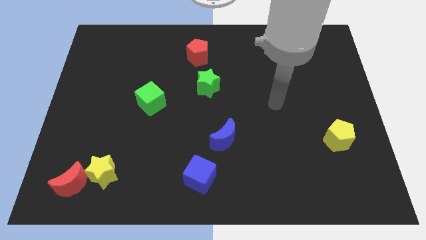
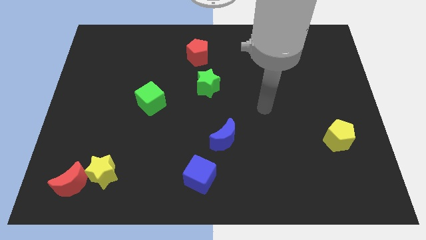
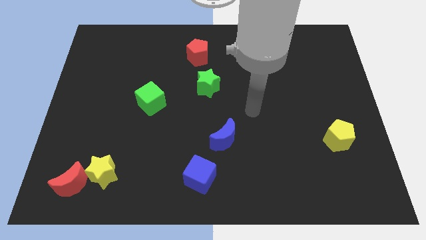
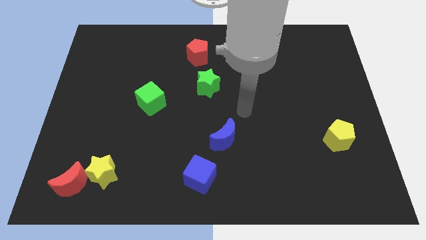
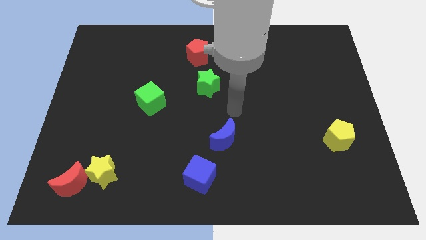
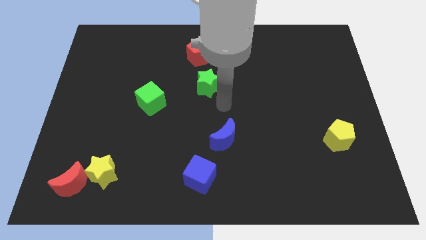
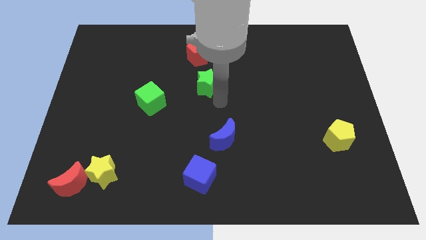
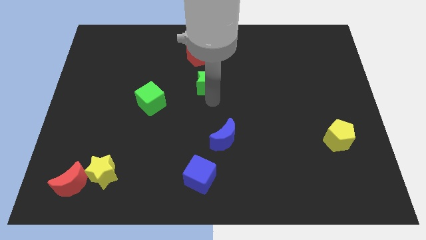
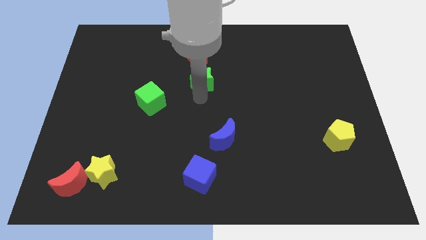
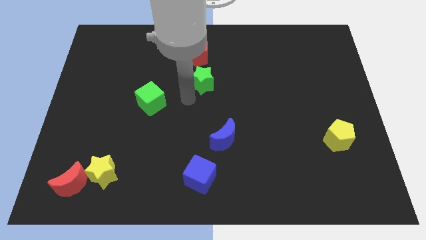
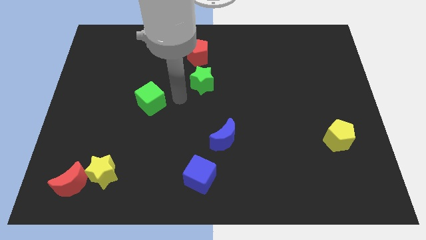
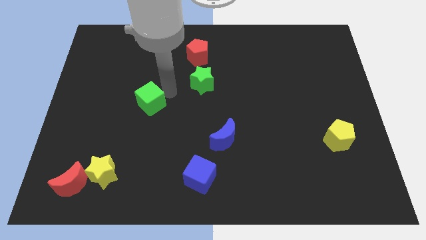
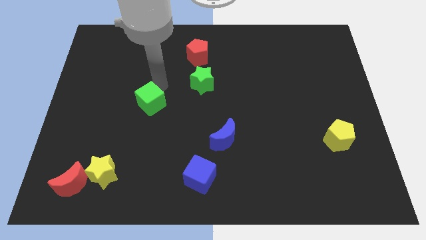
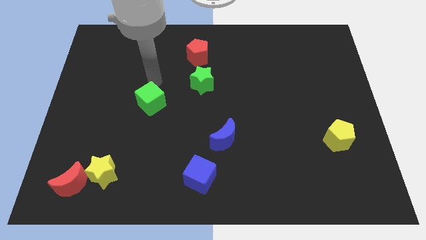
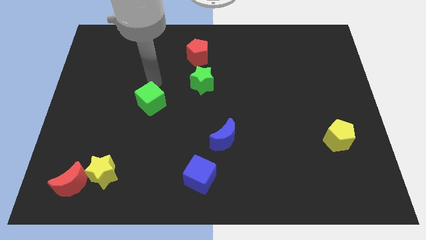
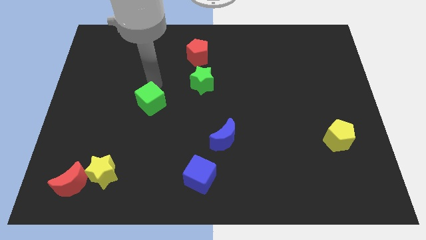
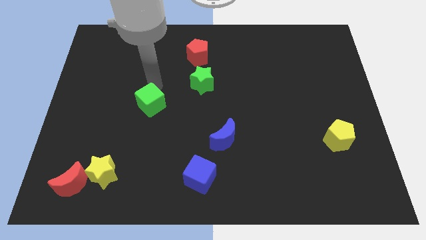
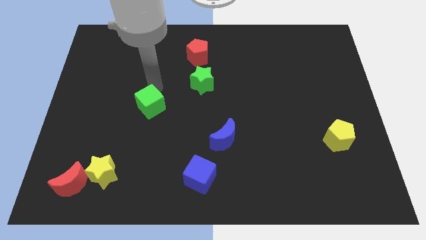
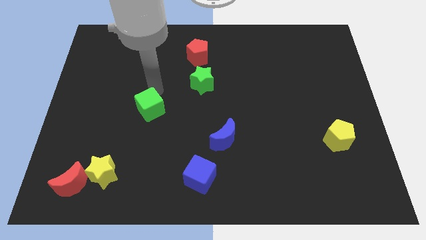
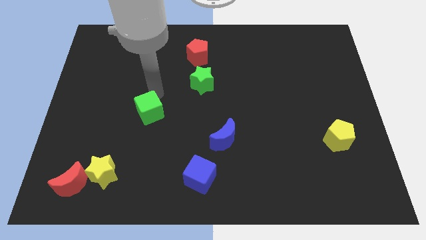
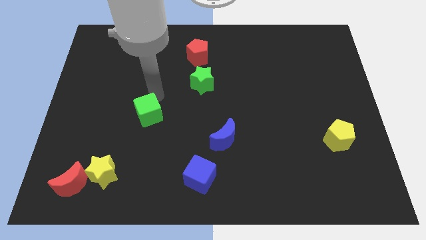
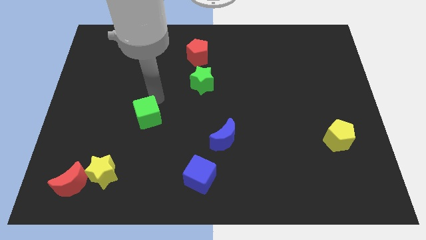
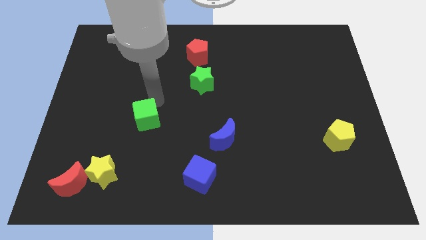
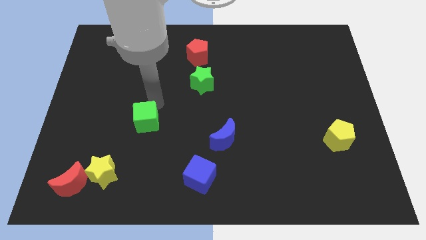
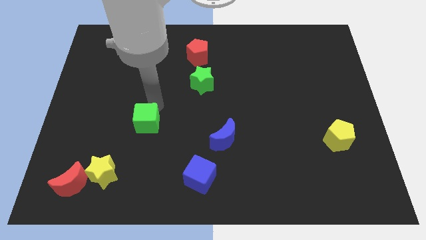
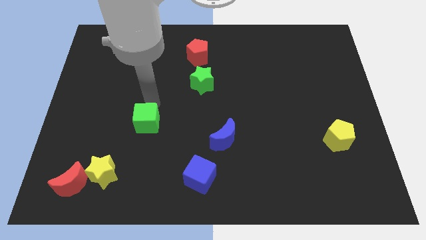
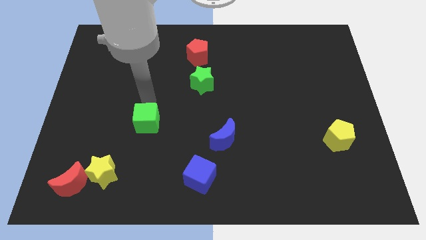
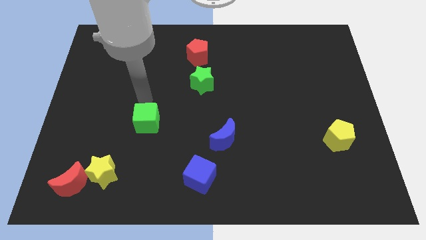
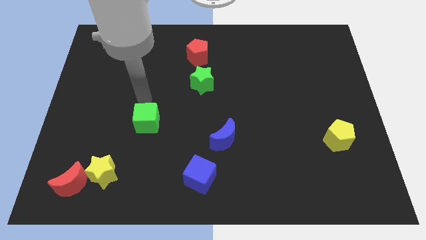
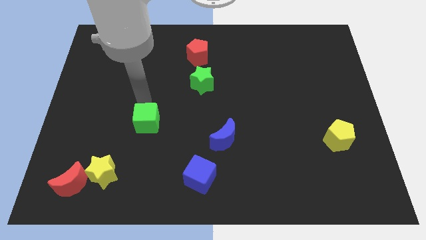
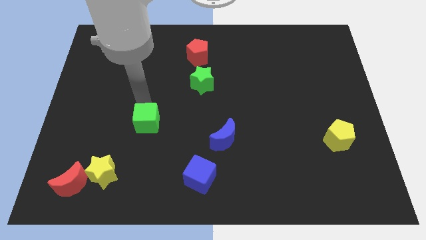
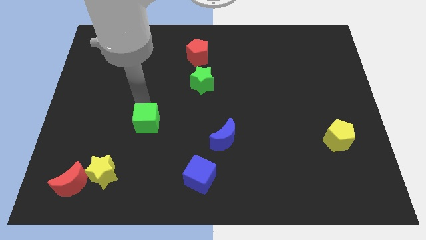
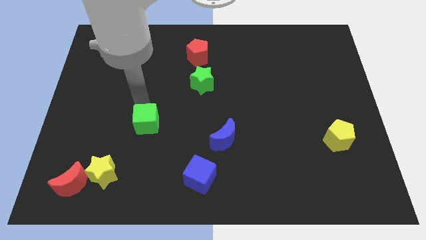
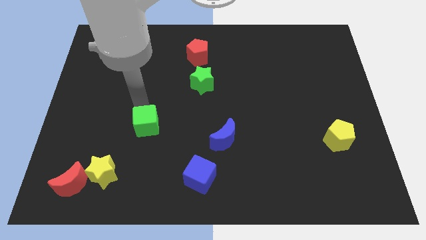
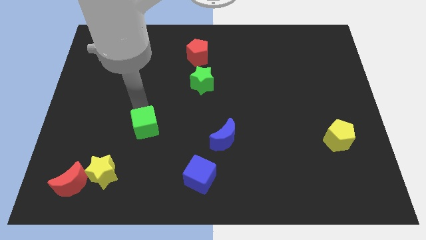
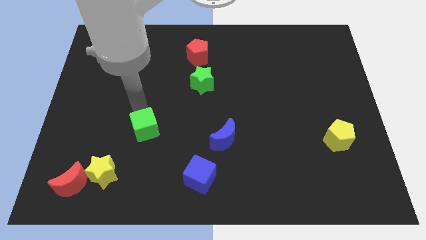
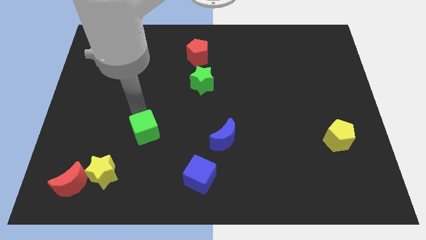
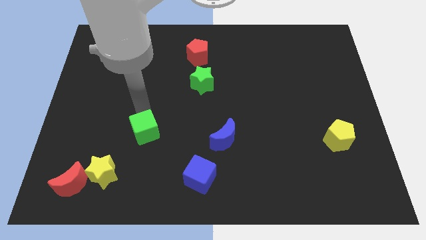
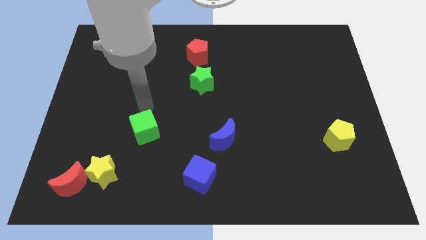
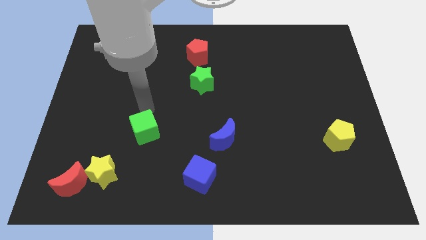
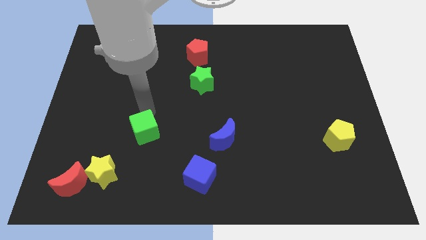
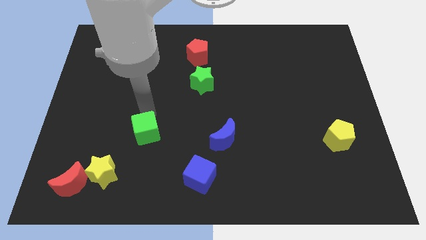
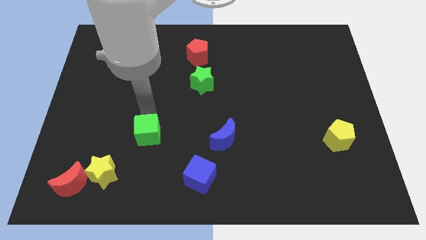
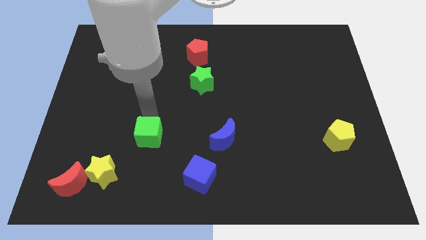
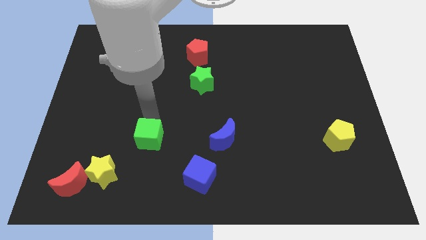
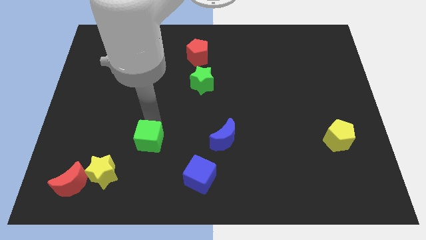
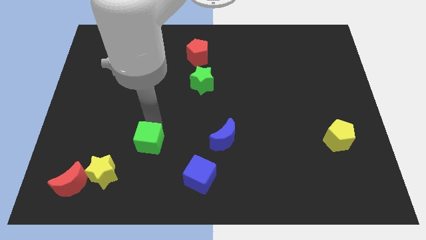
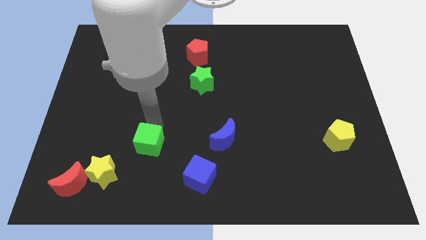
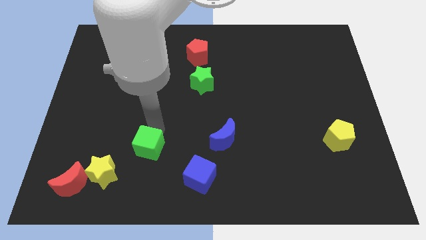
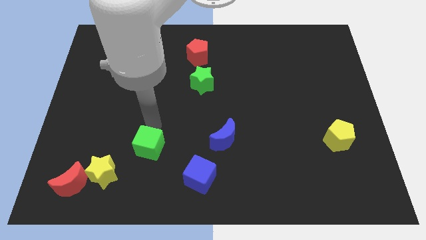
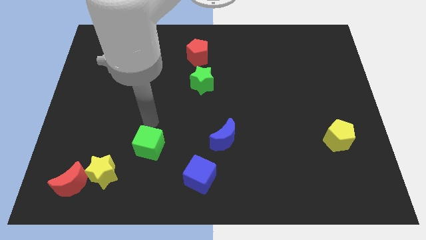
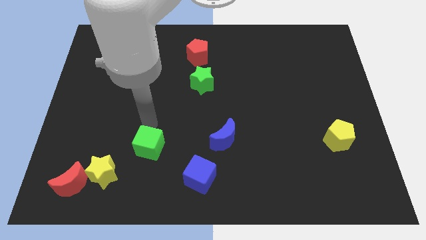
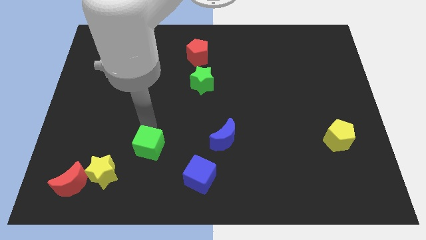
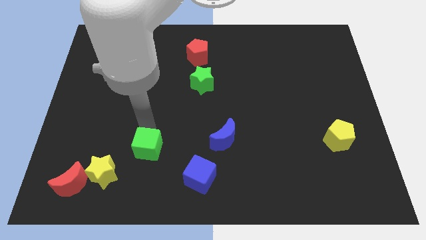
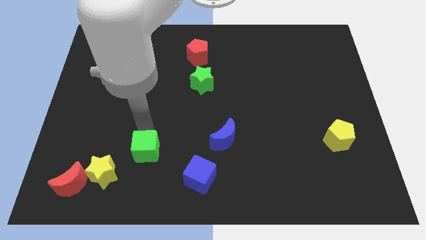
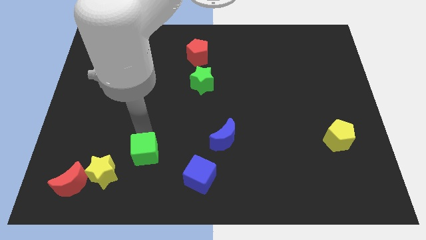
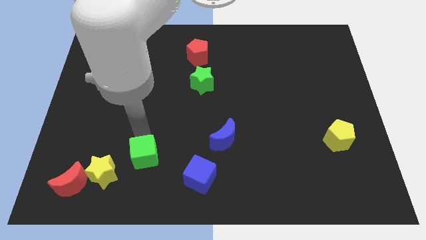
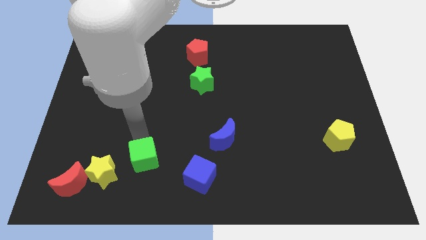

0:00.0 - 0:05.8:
move the green cube just left of the blue cube

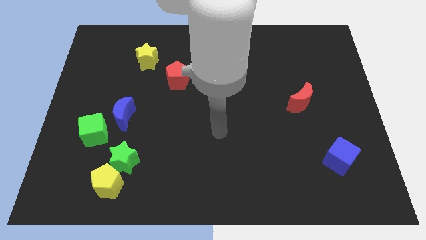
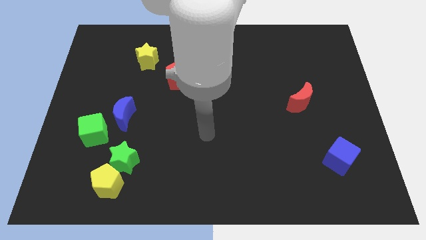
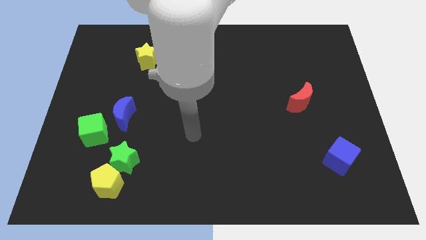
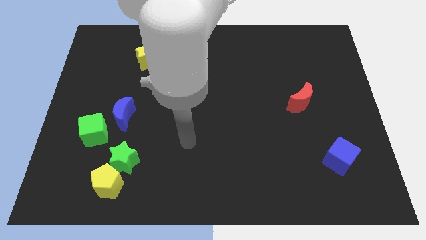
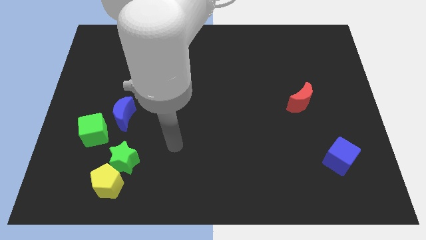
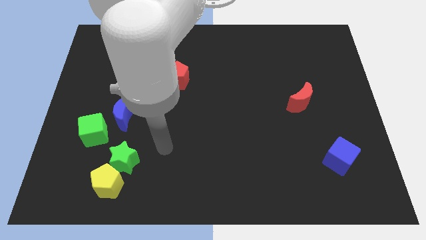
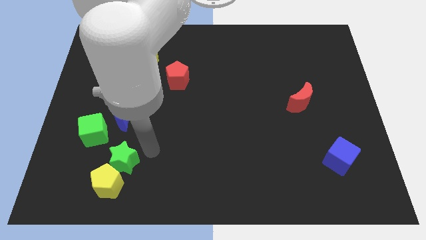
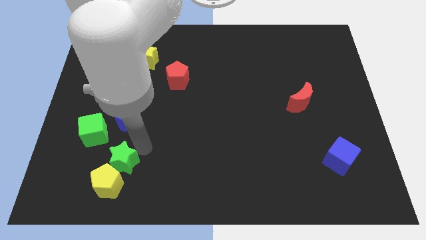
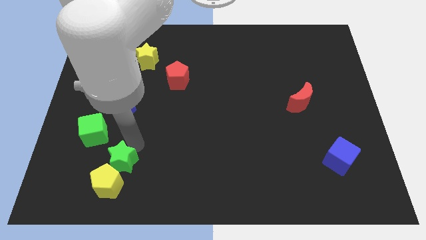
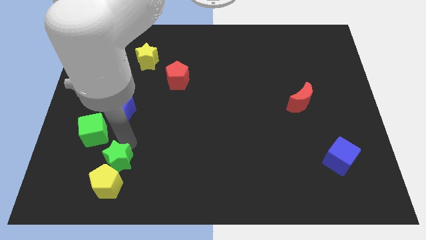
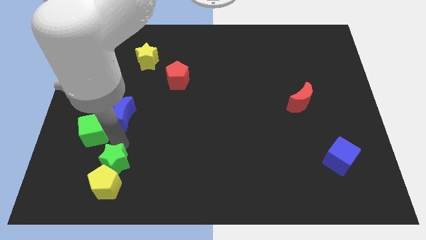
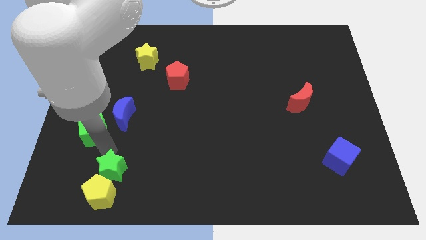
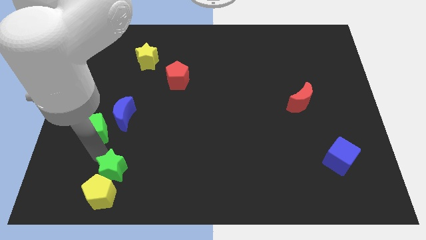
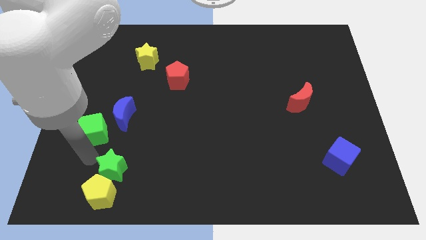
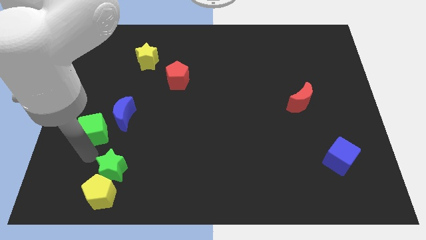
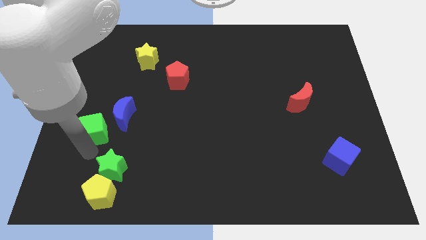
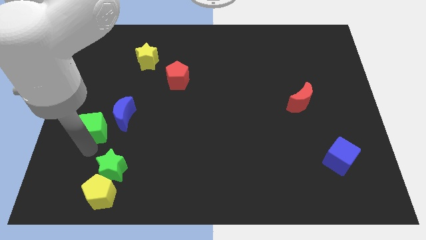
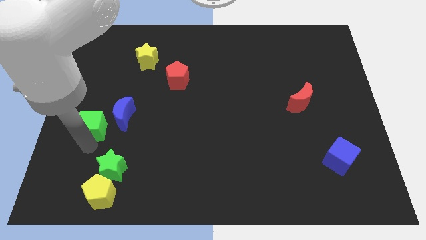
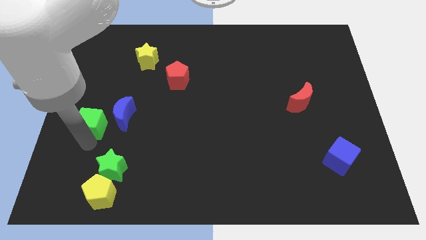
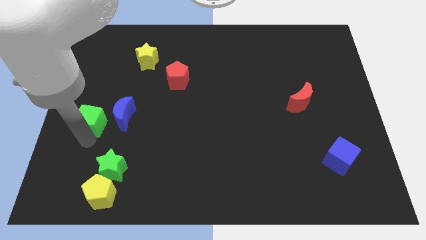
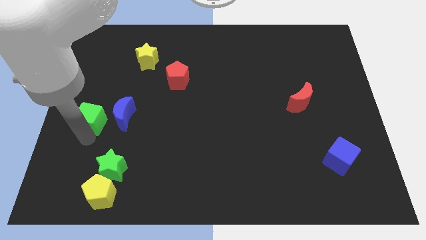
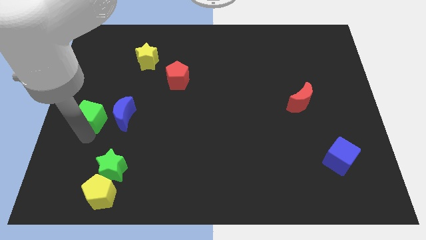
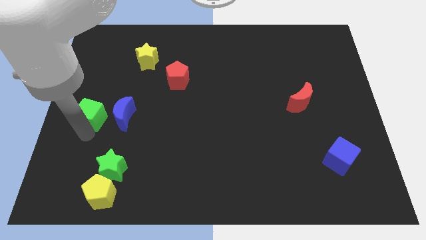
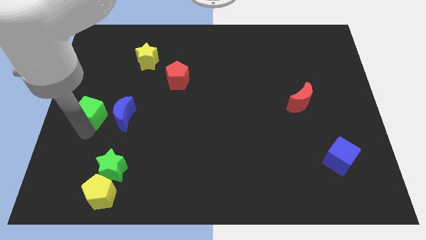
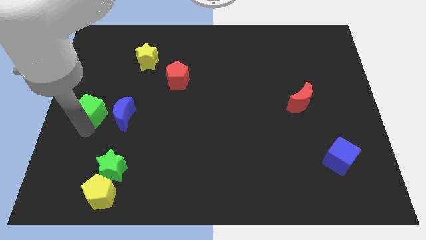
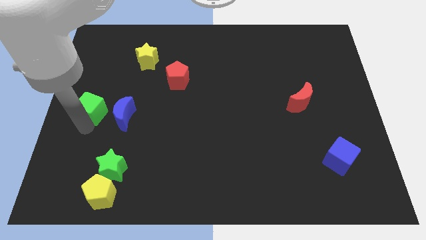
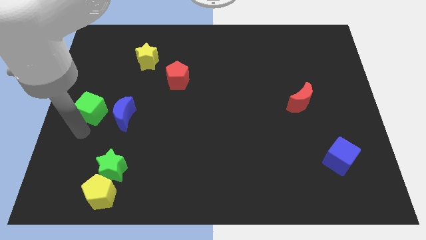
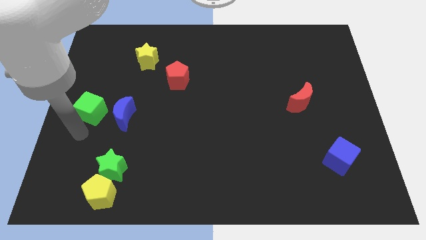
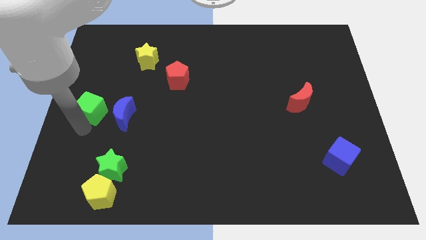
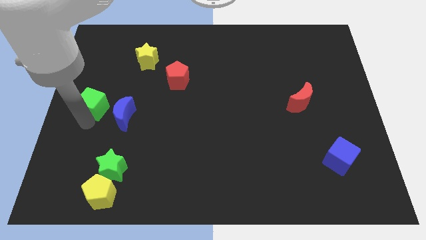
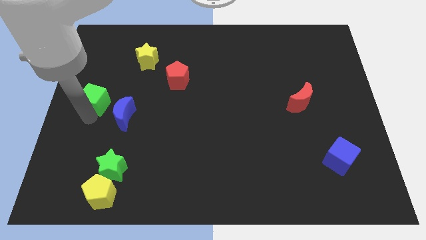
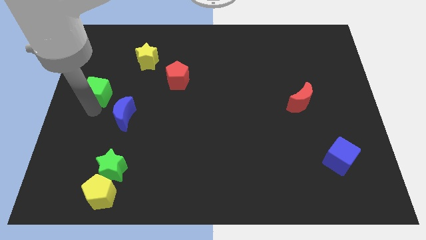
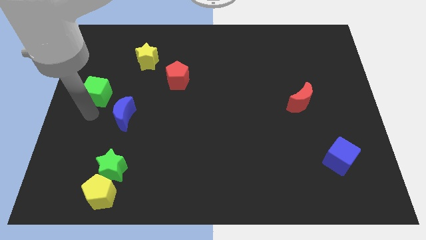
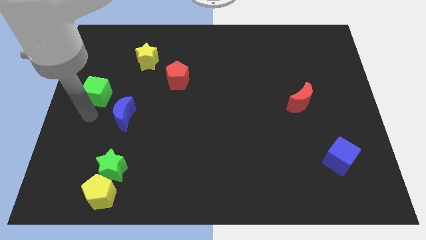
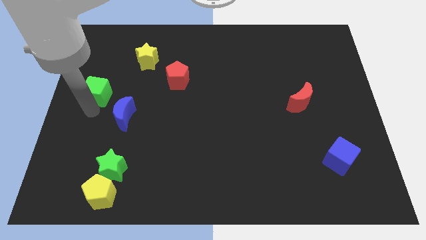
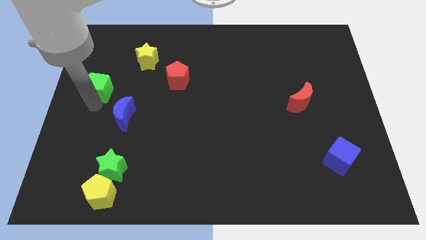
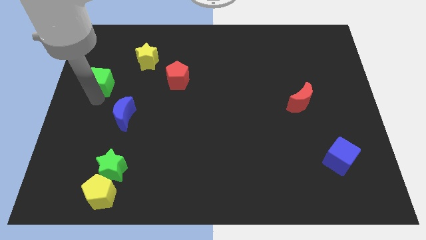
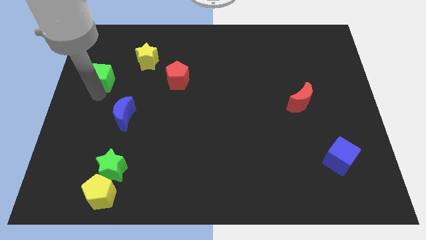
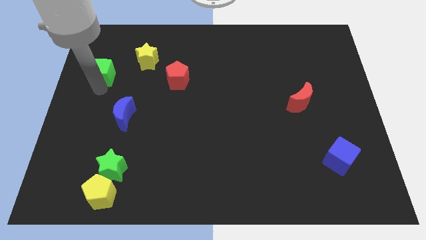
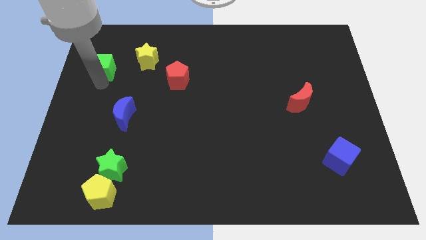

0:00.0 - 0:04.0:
put the green cube just left of the yellow star
